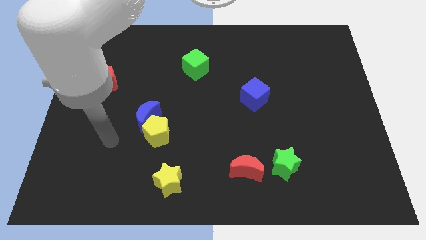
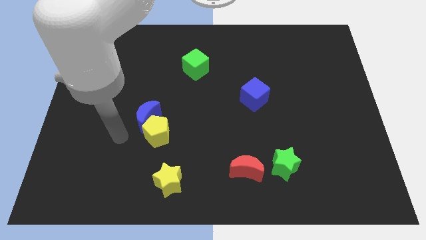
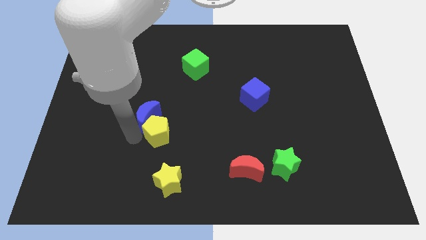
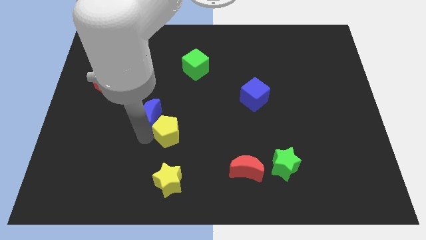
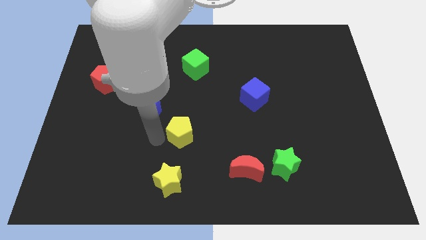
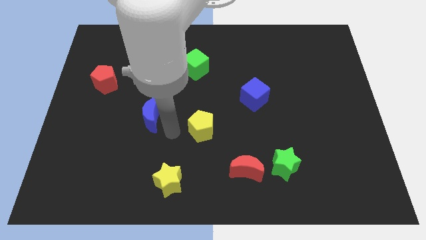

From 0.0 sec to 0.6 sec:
separate the blue moon from the yellow pentagon

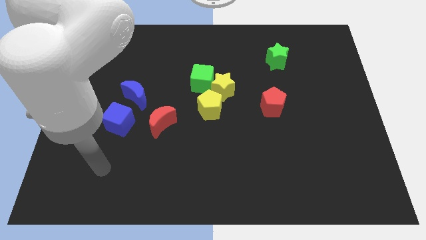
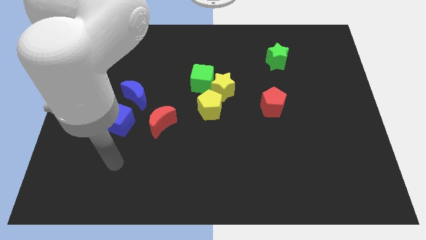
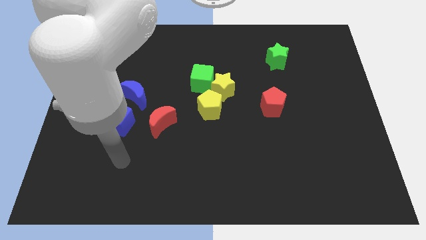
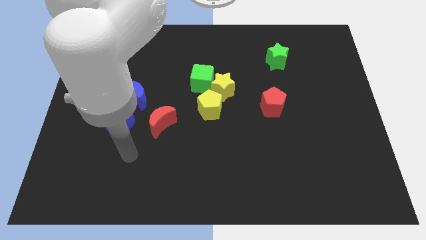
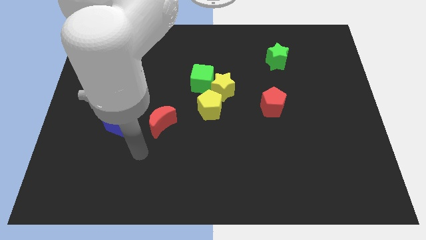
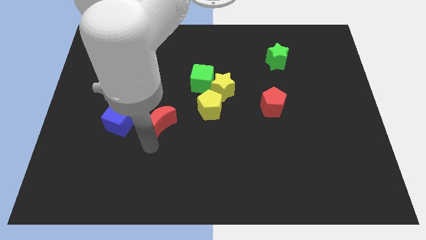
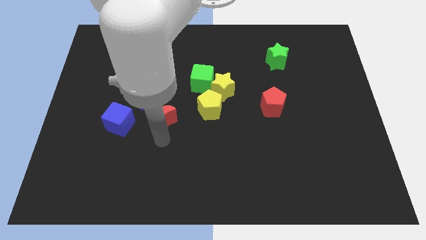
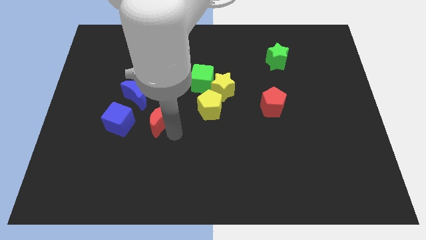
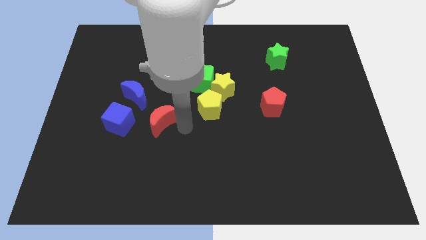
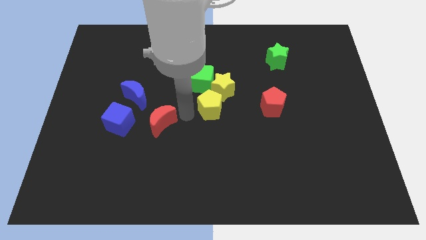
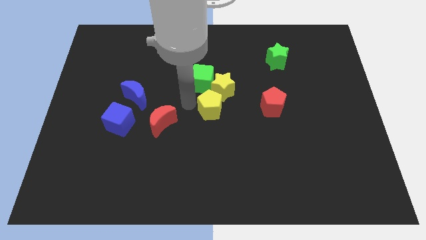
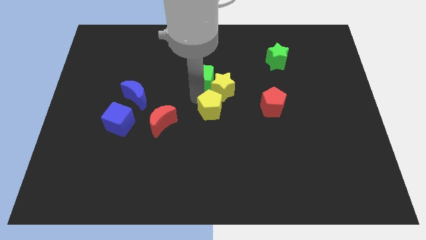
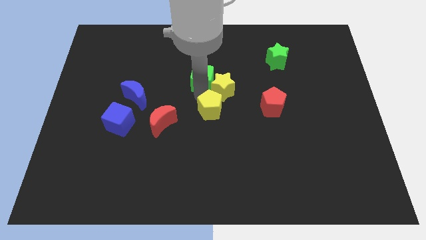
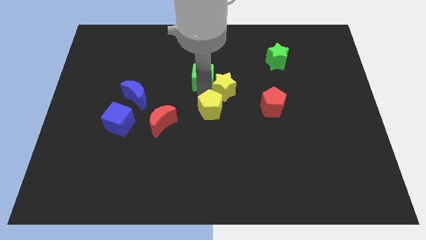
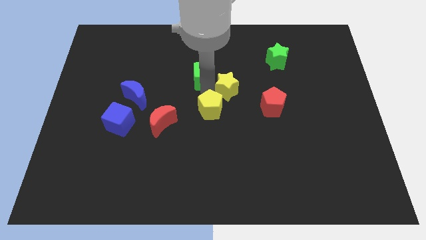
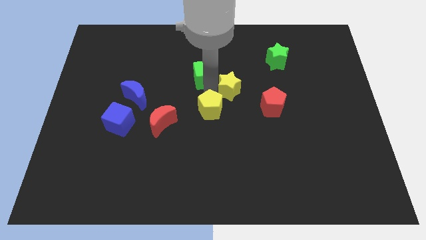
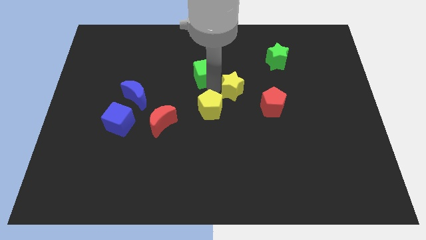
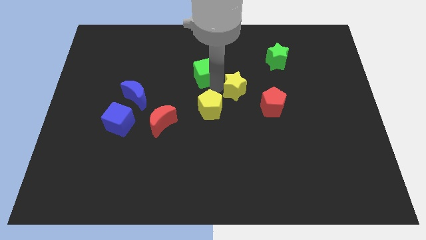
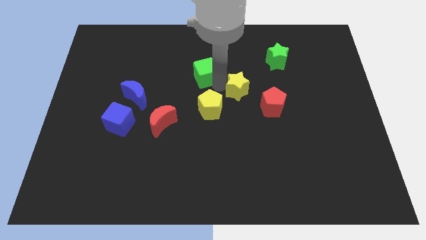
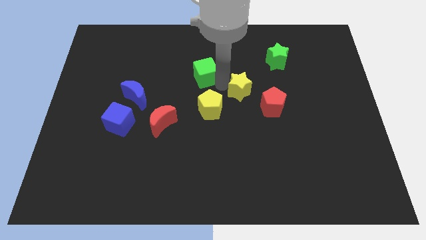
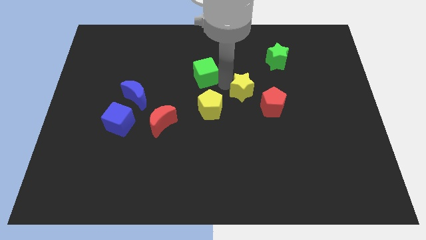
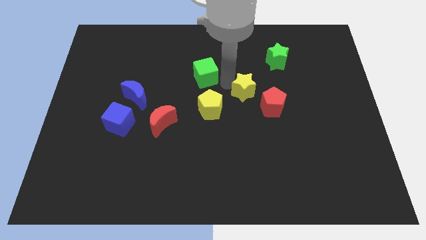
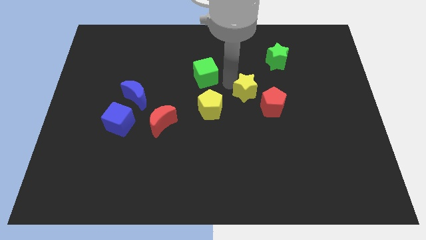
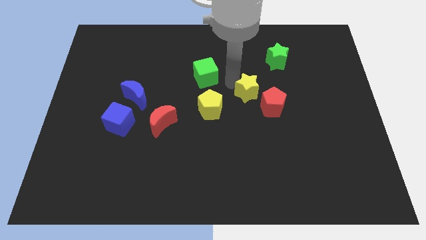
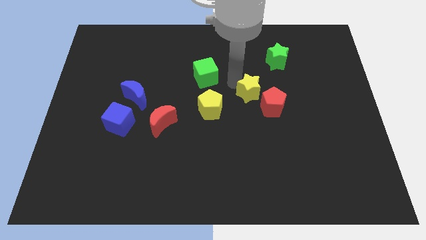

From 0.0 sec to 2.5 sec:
move the yellow star away from the green cube and yellow pentagon

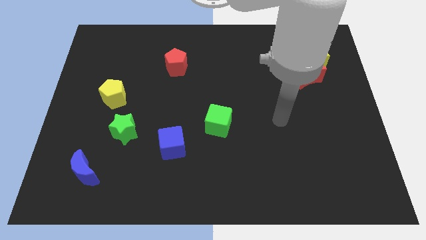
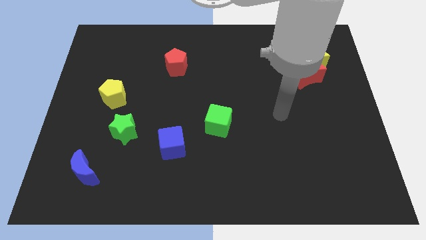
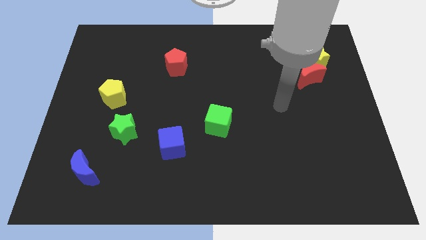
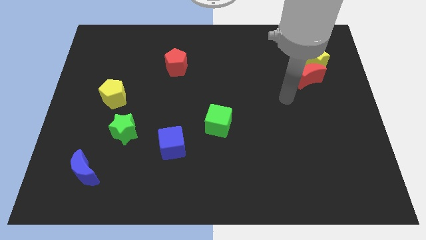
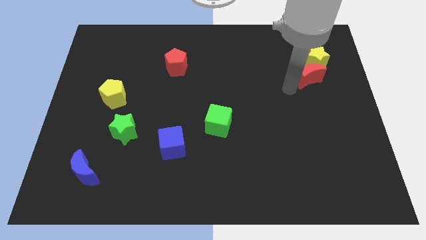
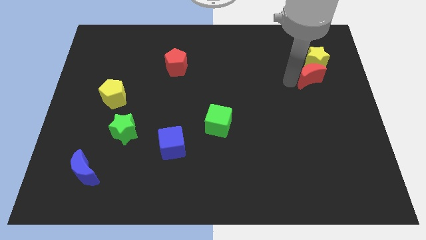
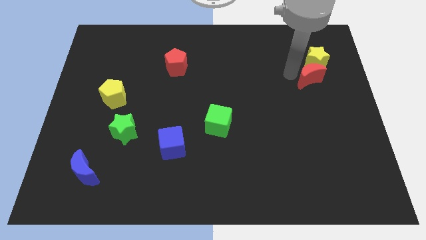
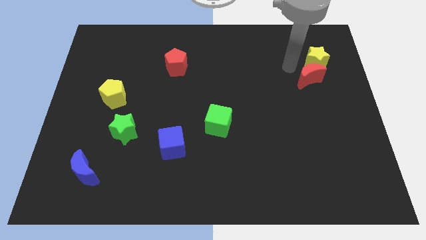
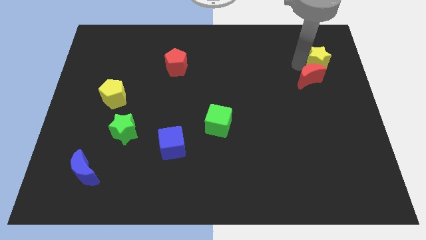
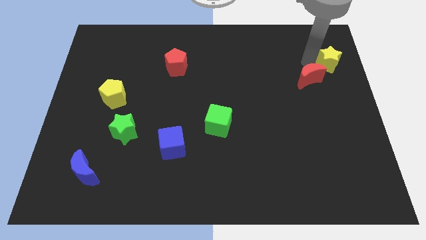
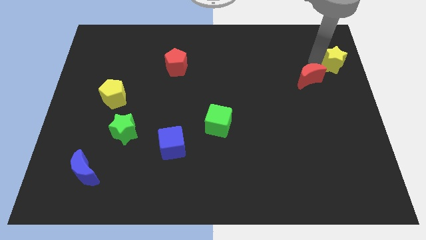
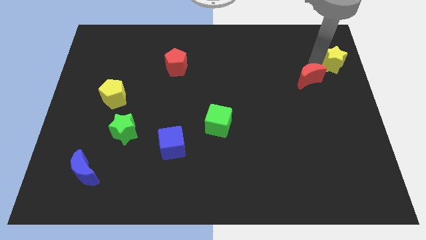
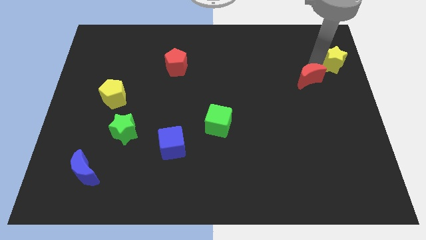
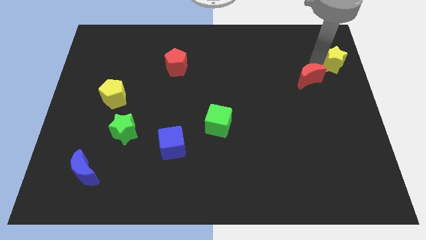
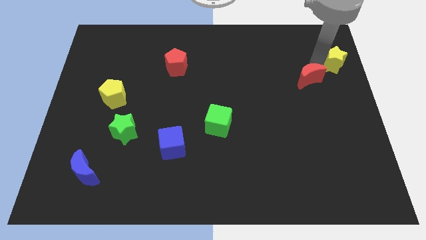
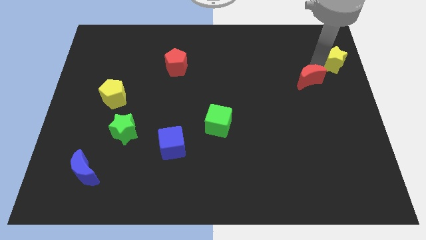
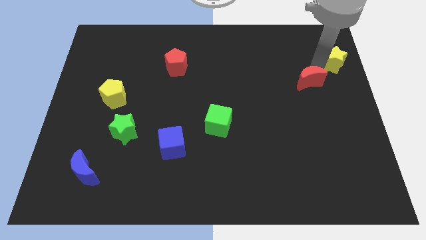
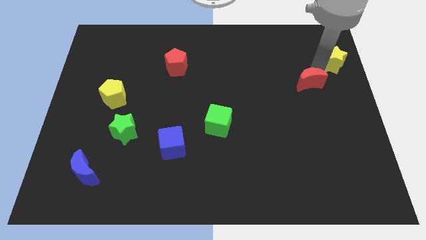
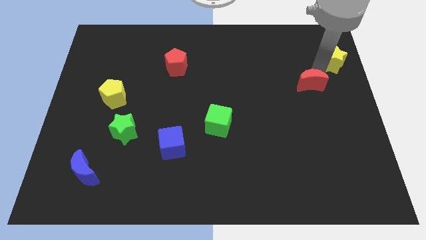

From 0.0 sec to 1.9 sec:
pull the red moon apart from the yellow star

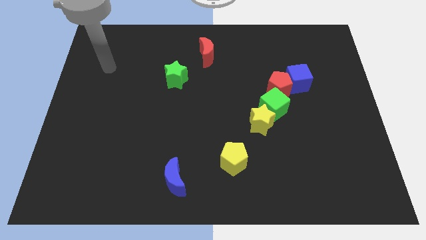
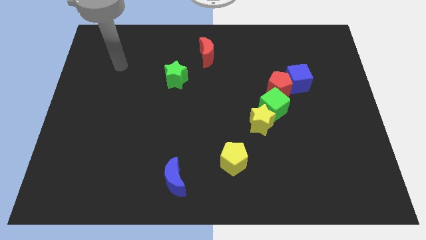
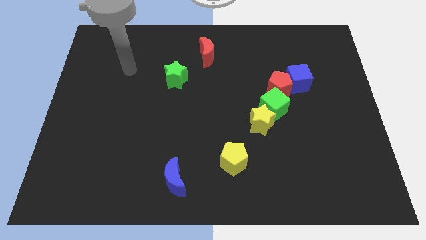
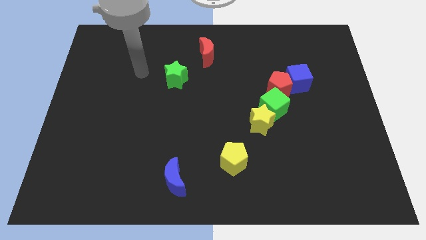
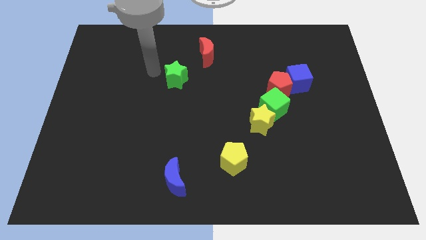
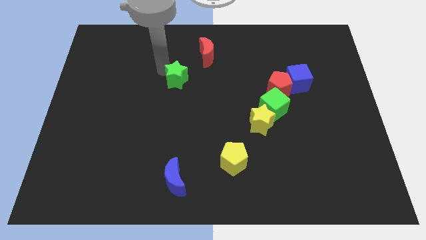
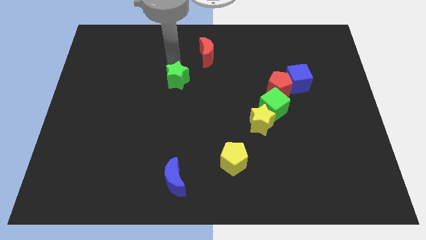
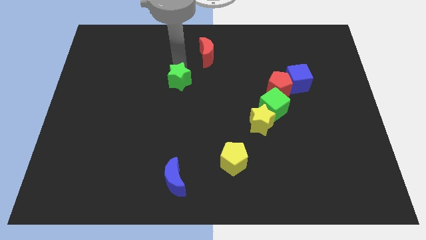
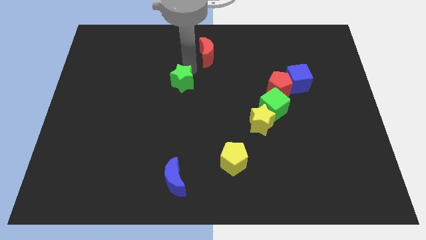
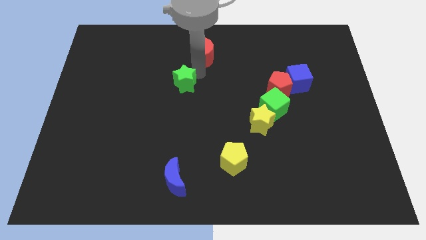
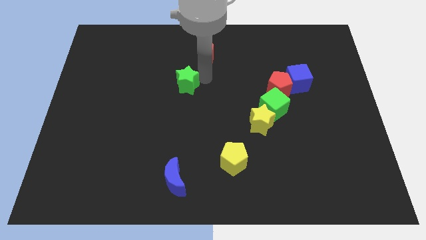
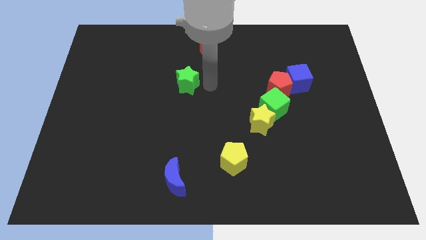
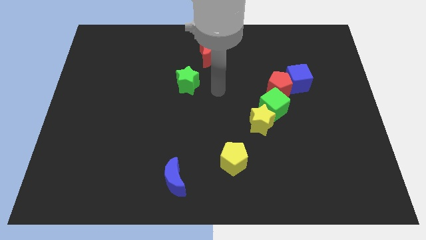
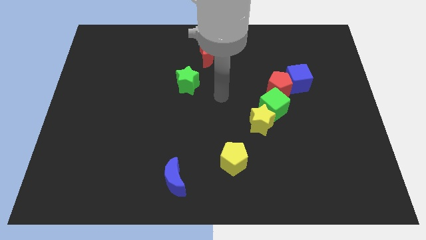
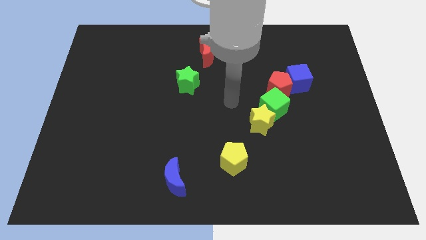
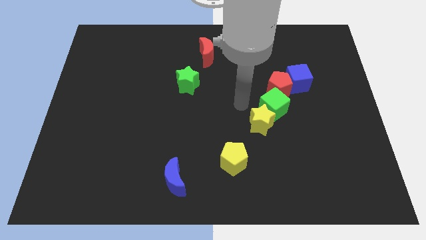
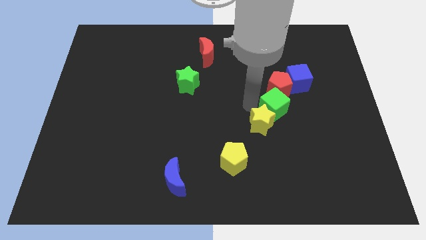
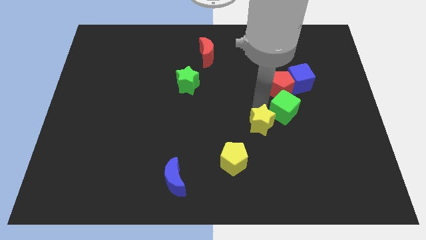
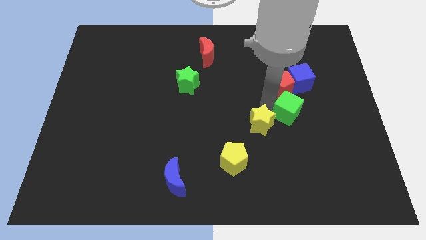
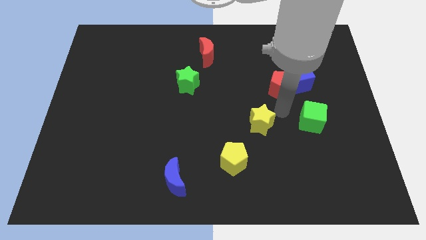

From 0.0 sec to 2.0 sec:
pull the yellow star apart from the green cube

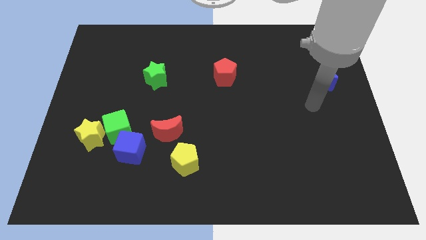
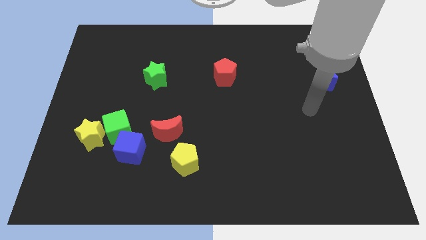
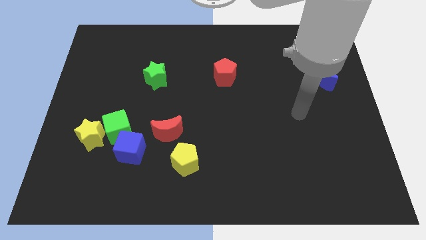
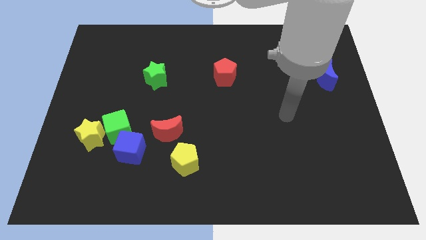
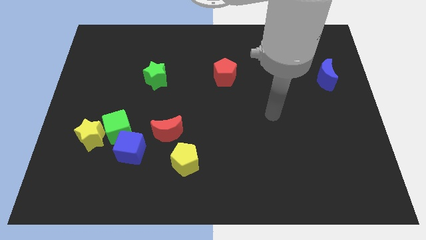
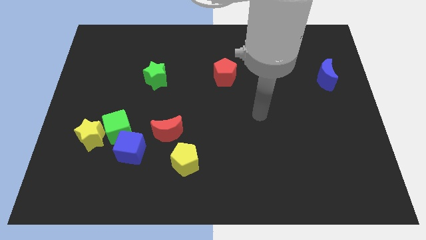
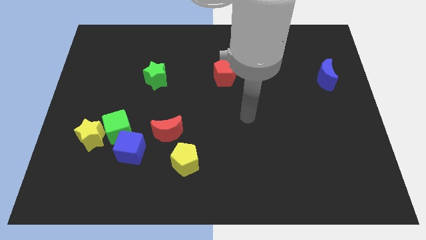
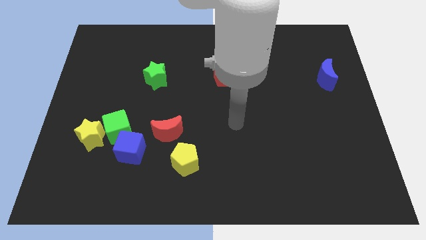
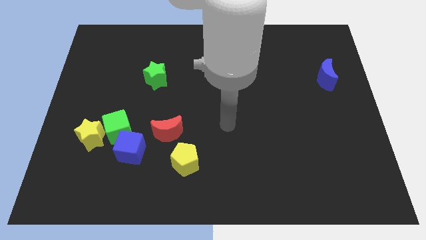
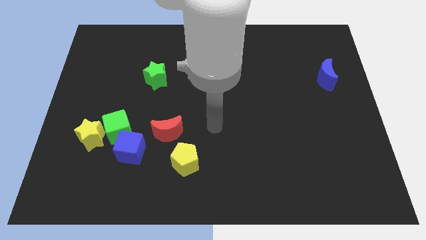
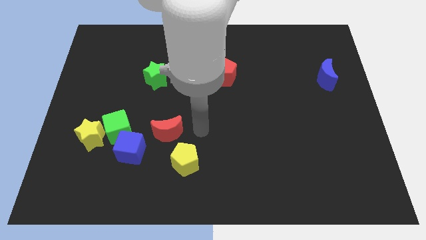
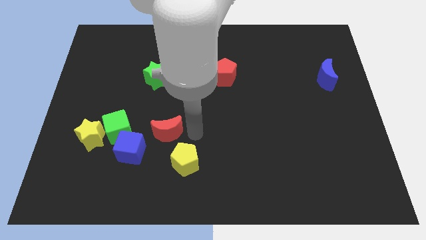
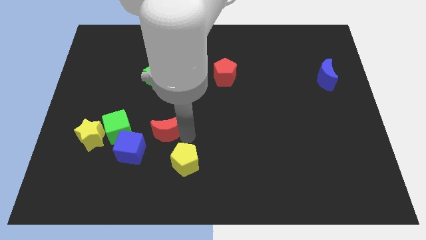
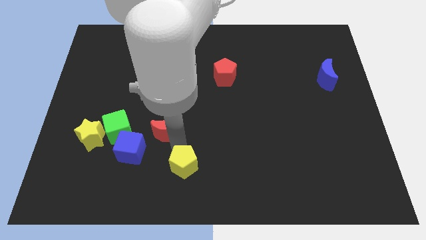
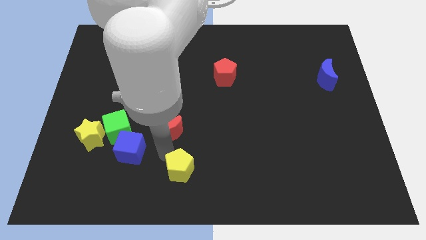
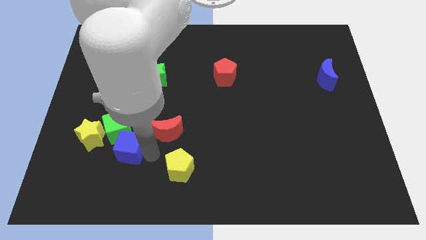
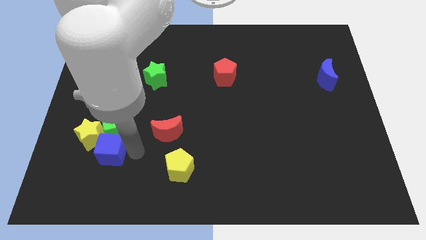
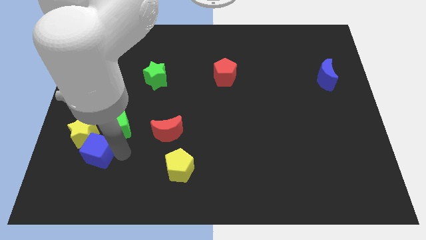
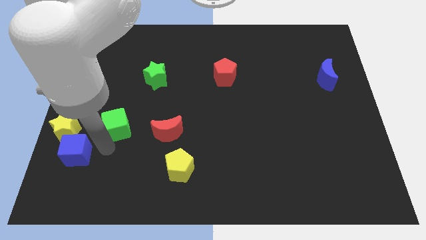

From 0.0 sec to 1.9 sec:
pull the green cube apart from the yellow star and blue cube

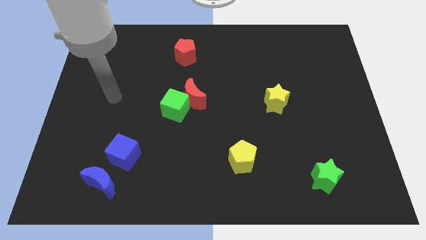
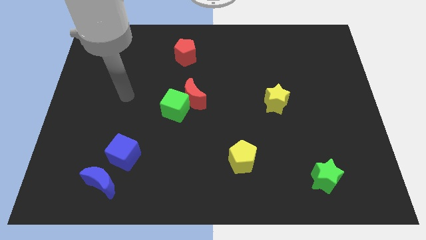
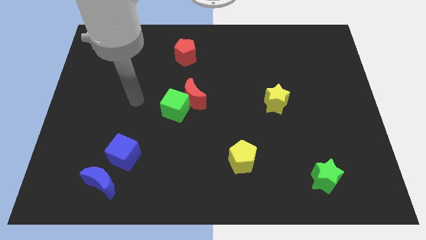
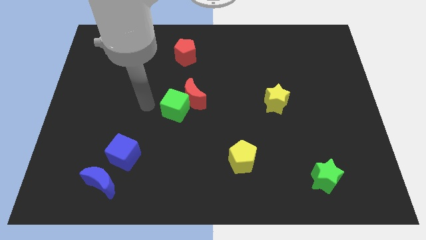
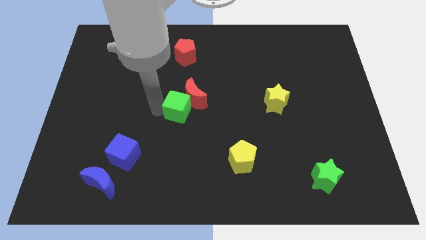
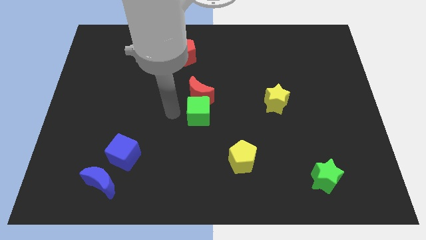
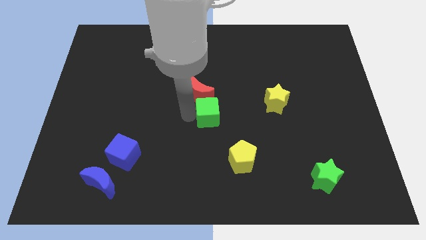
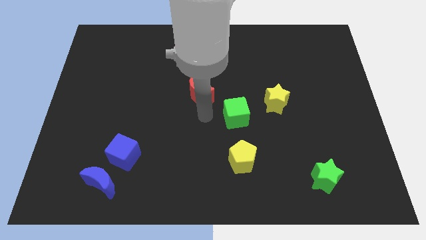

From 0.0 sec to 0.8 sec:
move the red moon away from the green cube
